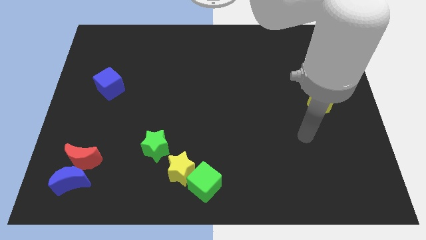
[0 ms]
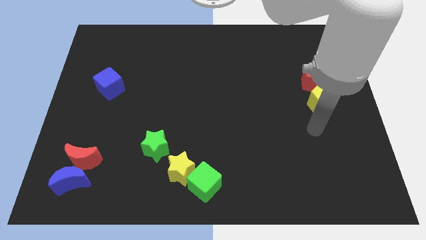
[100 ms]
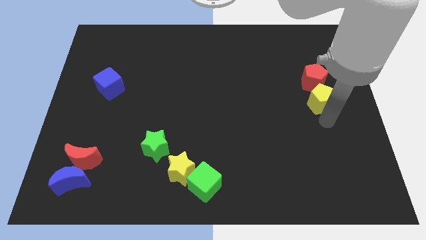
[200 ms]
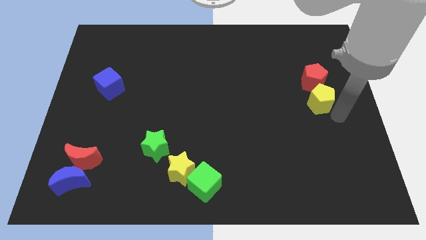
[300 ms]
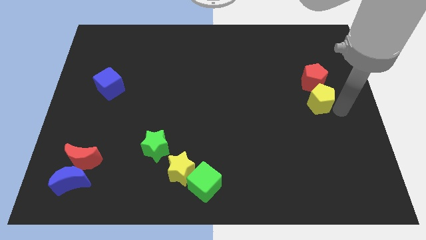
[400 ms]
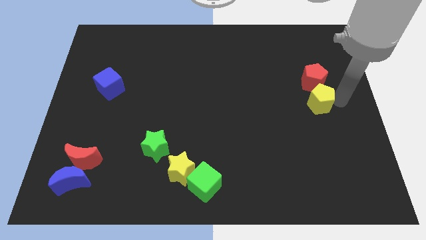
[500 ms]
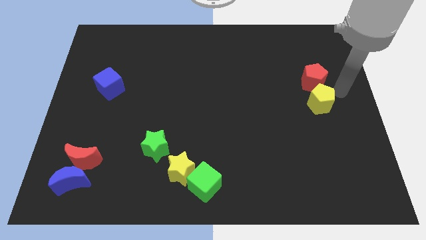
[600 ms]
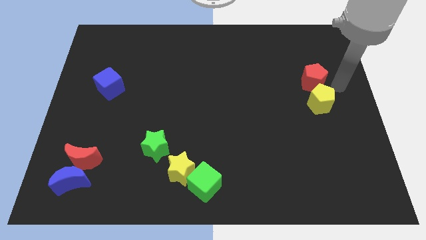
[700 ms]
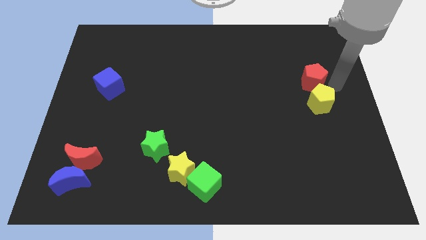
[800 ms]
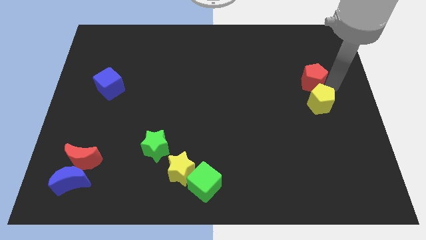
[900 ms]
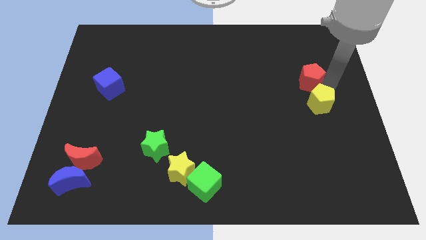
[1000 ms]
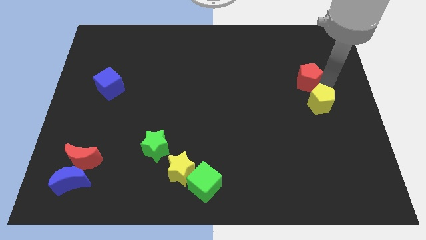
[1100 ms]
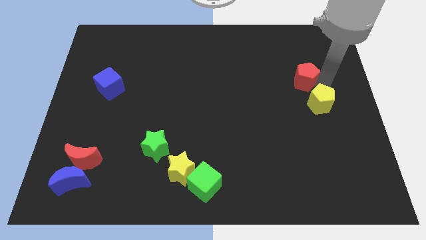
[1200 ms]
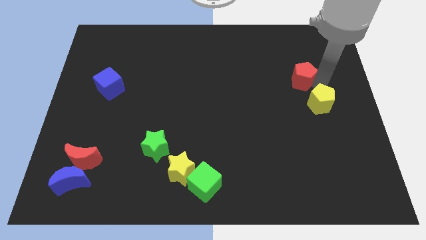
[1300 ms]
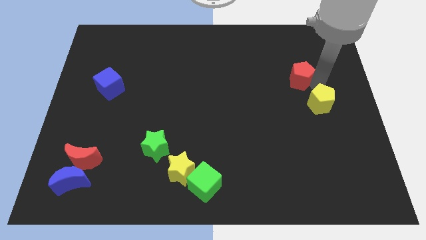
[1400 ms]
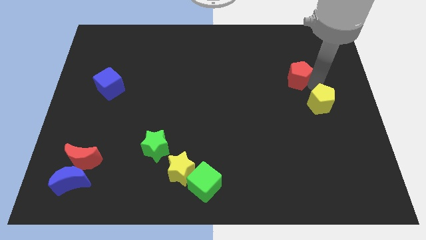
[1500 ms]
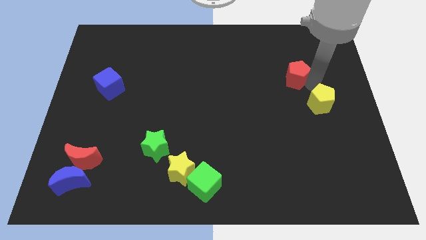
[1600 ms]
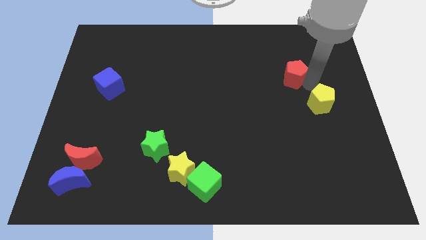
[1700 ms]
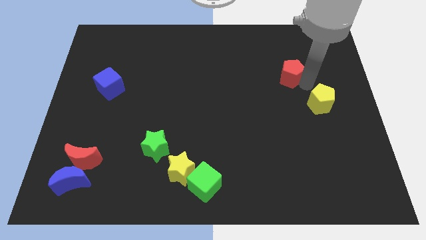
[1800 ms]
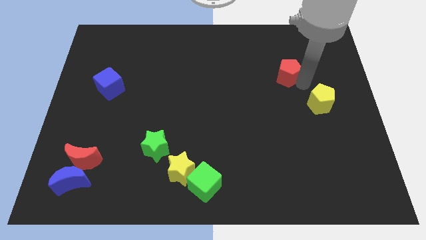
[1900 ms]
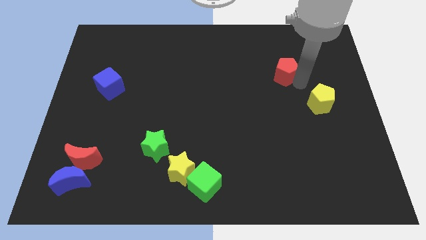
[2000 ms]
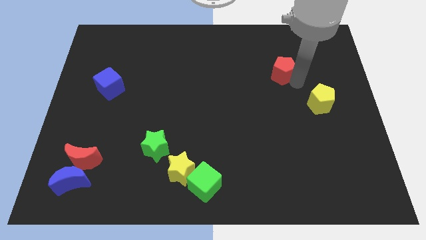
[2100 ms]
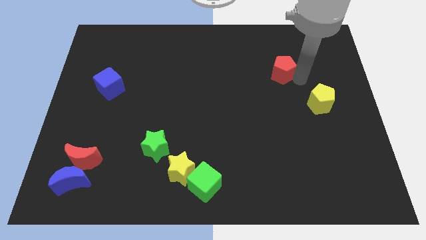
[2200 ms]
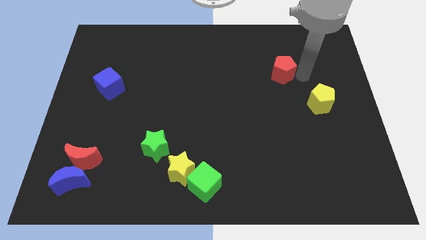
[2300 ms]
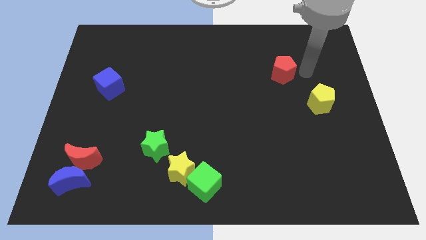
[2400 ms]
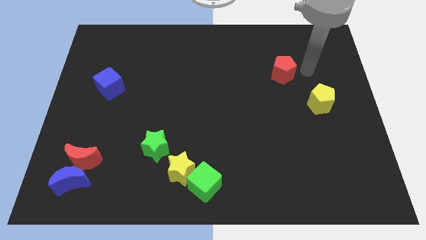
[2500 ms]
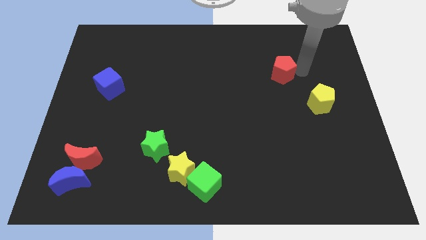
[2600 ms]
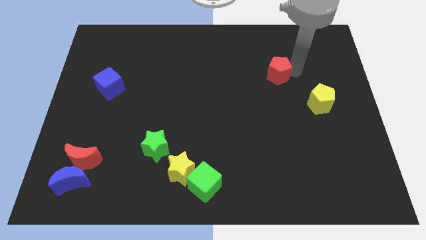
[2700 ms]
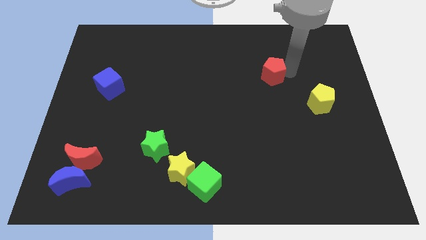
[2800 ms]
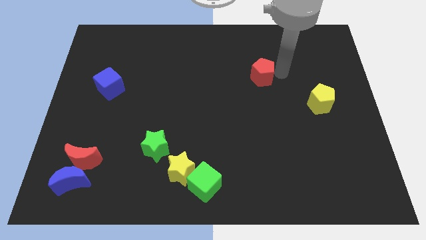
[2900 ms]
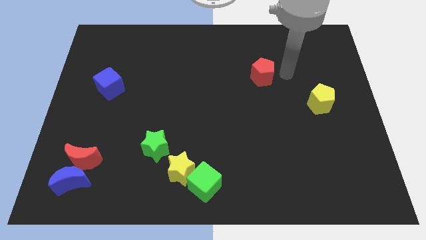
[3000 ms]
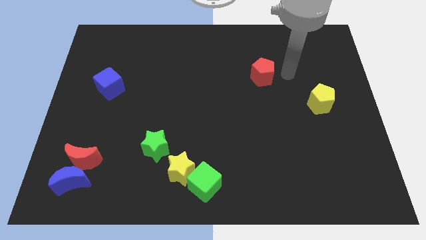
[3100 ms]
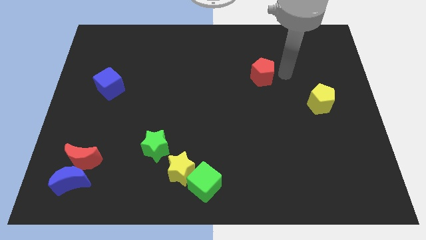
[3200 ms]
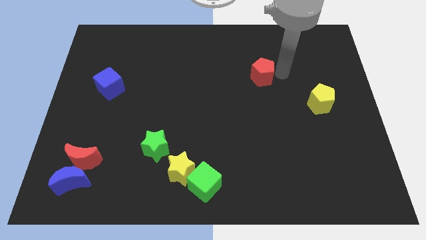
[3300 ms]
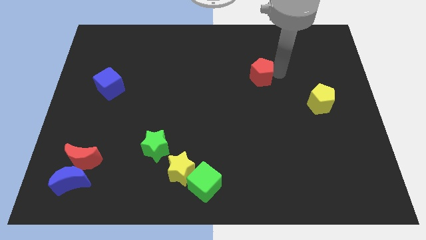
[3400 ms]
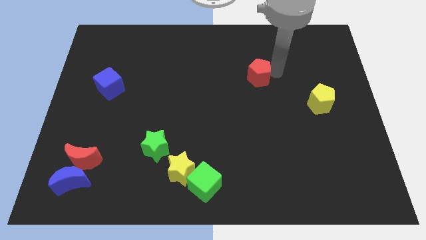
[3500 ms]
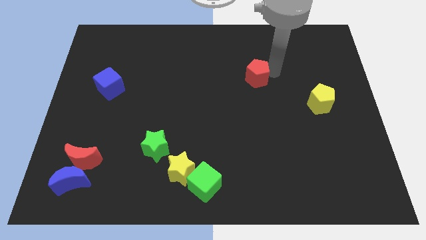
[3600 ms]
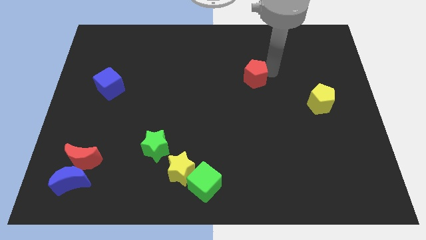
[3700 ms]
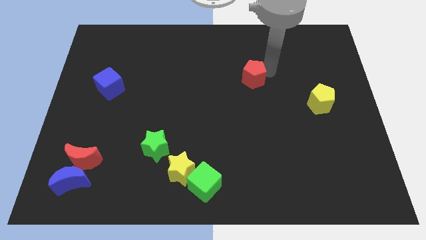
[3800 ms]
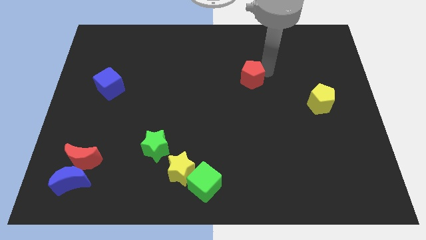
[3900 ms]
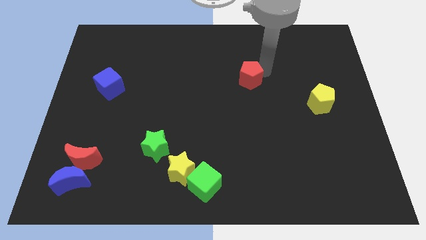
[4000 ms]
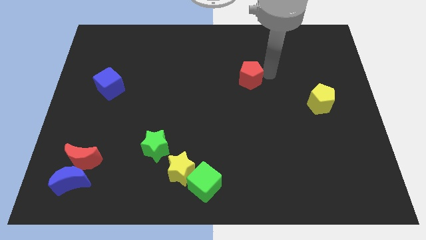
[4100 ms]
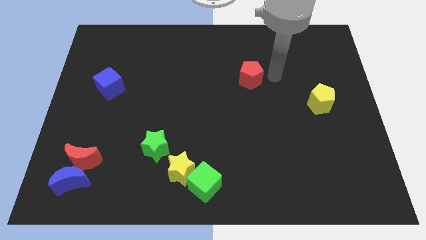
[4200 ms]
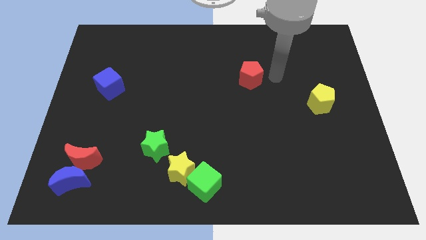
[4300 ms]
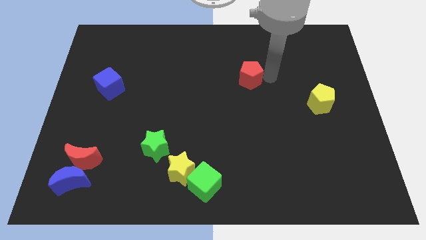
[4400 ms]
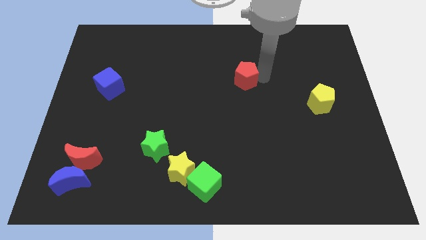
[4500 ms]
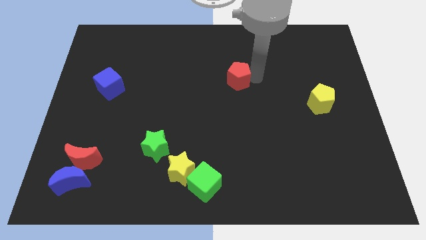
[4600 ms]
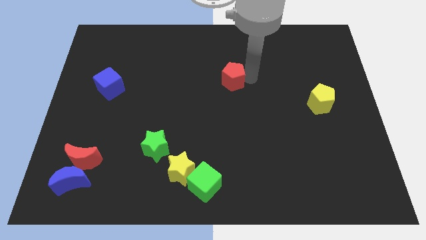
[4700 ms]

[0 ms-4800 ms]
move the red pentagon left

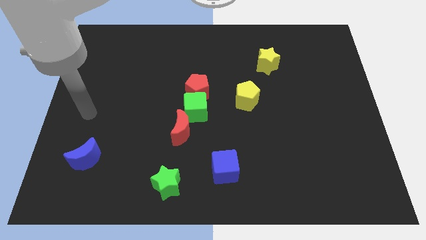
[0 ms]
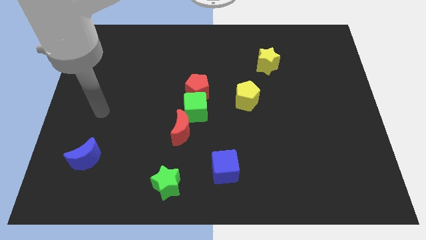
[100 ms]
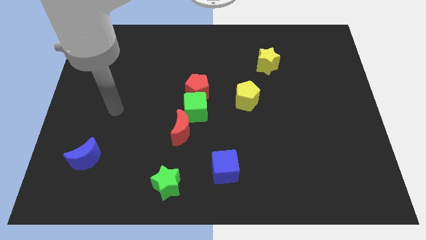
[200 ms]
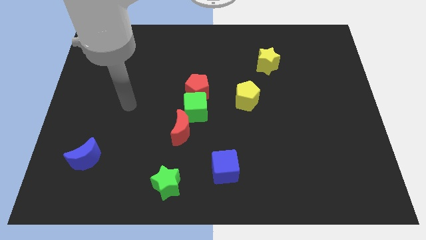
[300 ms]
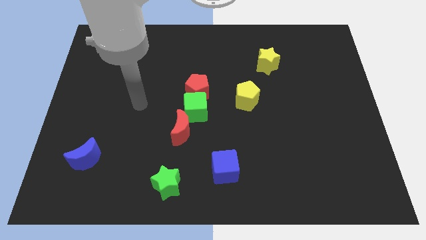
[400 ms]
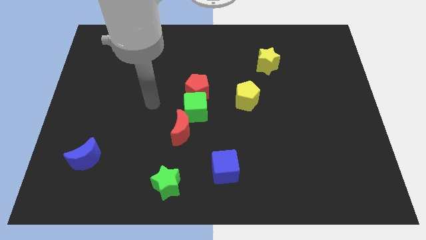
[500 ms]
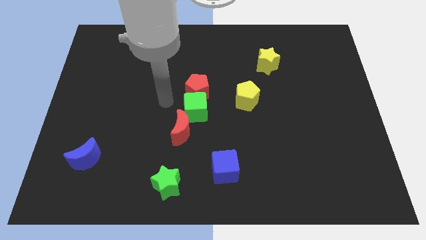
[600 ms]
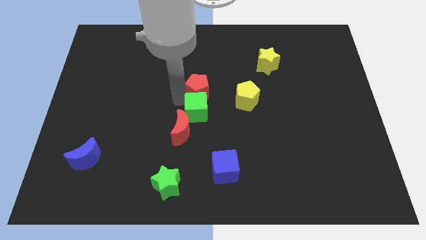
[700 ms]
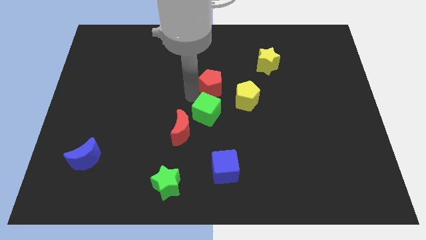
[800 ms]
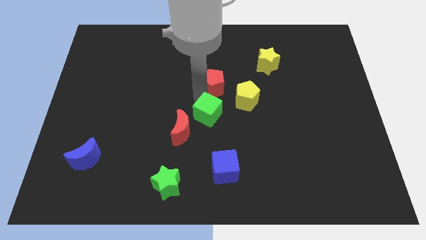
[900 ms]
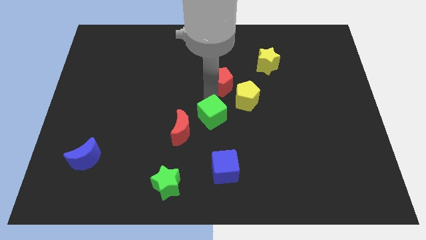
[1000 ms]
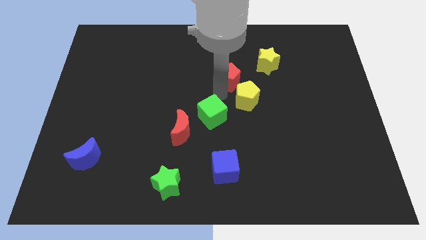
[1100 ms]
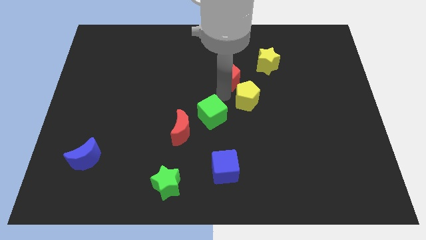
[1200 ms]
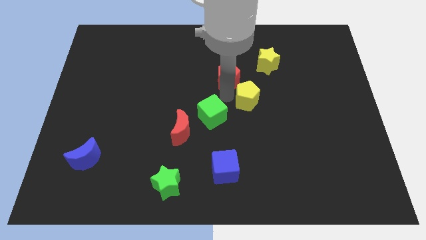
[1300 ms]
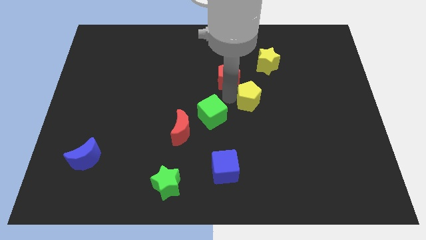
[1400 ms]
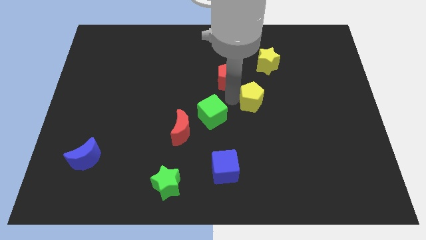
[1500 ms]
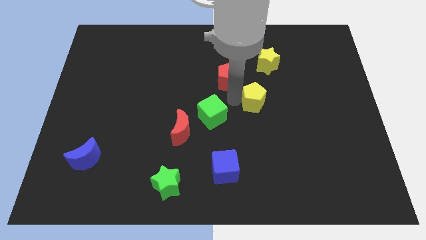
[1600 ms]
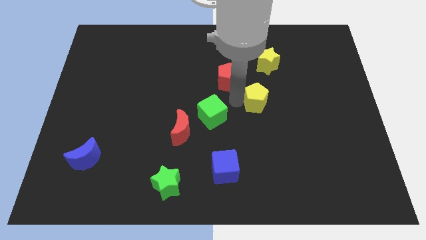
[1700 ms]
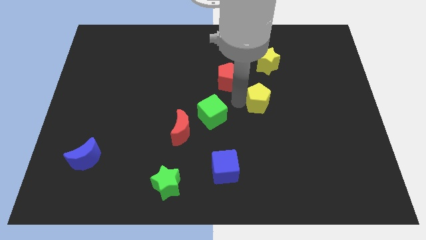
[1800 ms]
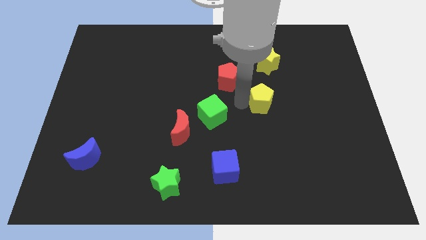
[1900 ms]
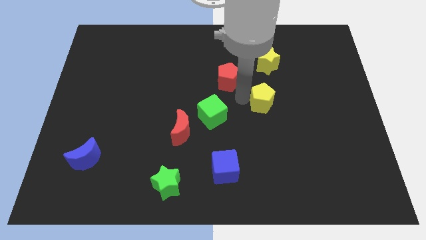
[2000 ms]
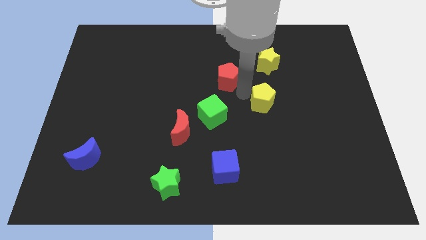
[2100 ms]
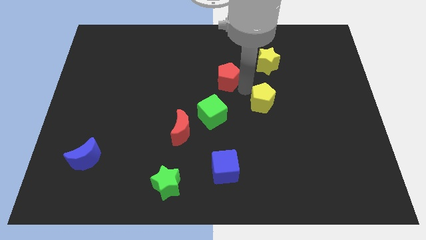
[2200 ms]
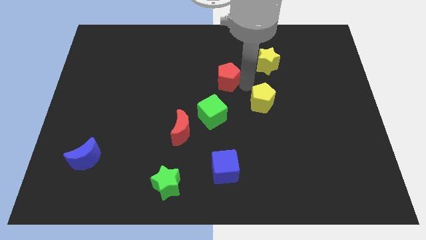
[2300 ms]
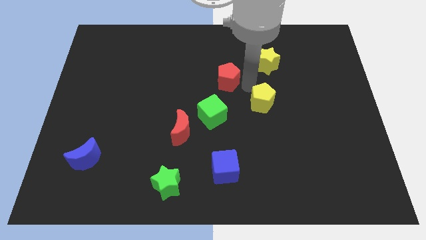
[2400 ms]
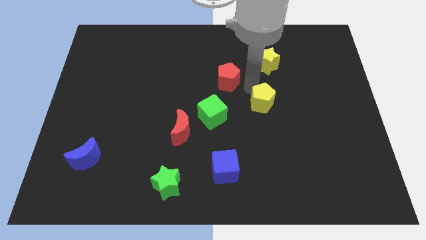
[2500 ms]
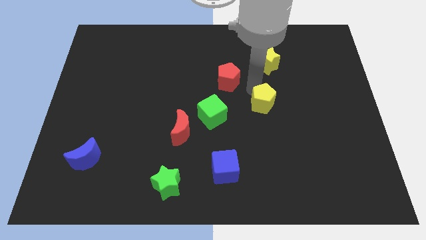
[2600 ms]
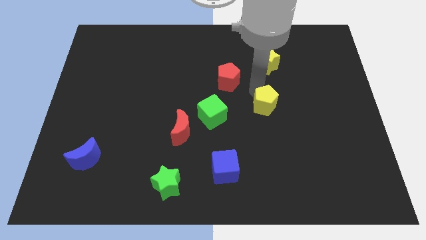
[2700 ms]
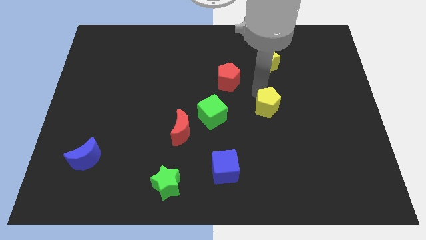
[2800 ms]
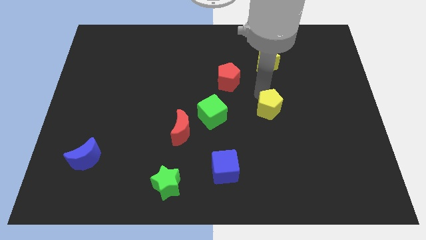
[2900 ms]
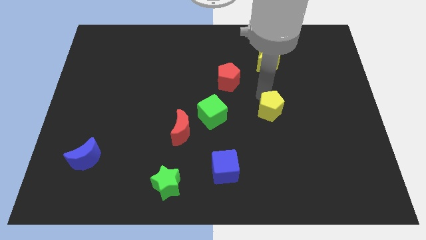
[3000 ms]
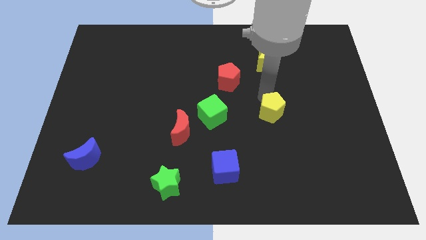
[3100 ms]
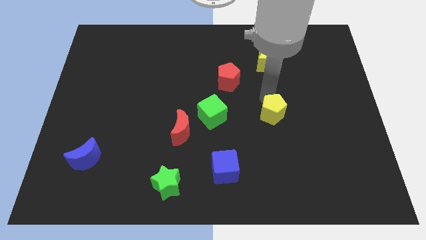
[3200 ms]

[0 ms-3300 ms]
slightly move the yellow pentagon downwards and to the right diagonally
